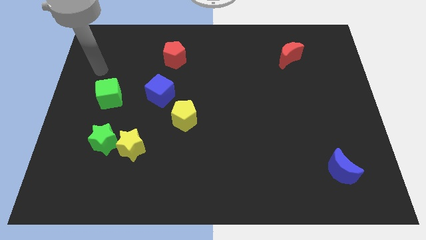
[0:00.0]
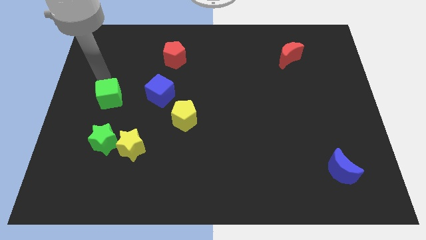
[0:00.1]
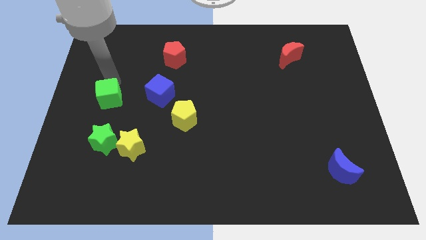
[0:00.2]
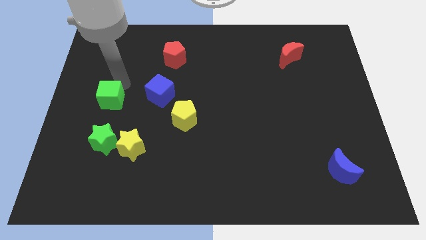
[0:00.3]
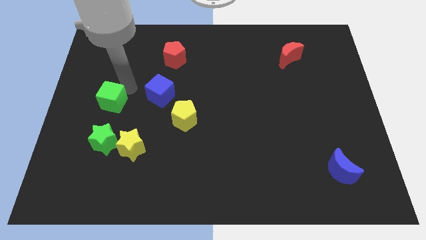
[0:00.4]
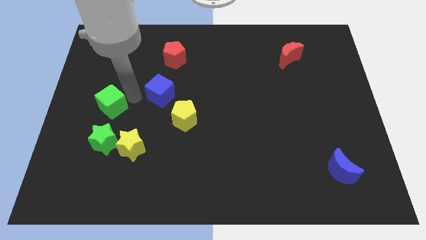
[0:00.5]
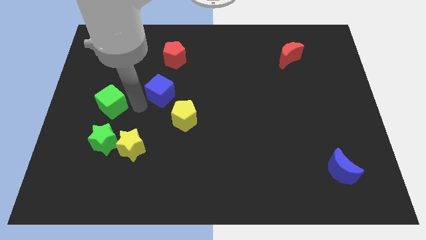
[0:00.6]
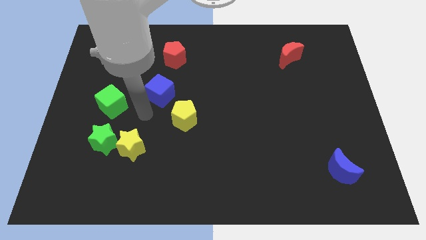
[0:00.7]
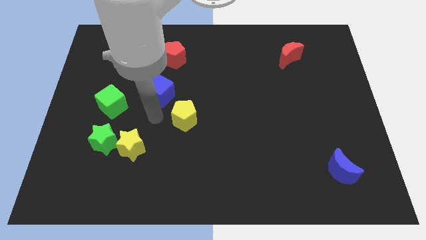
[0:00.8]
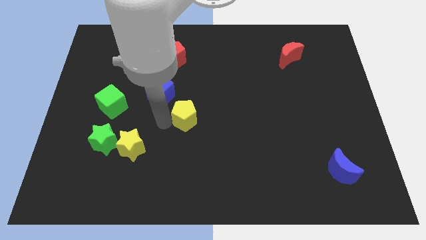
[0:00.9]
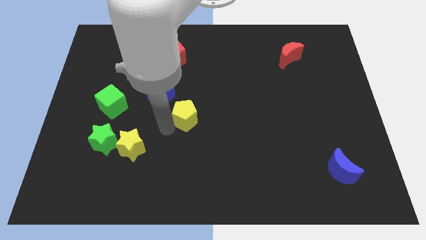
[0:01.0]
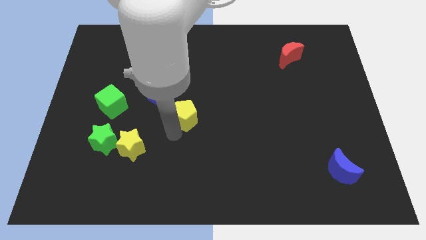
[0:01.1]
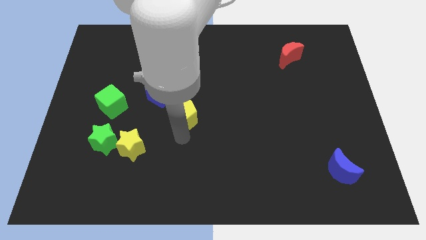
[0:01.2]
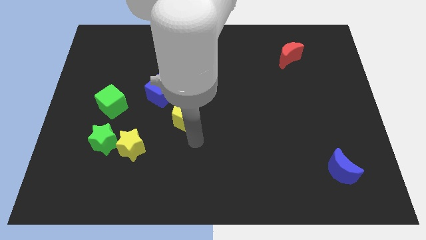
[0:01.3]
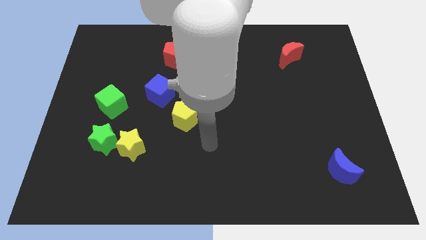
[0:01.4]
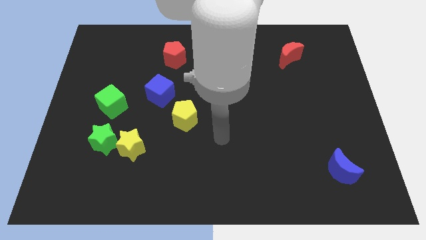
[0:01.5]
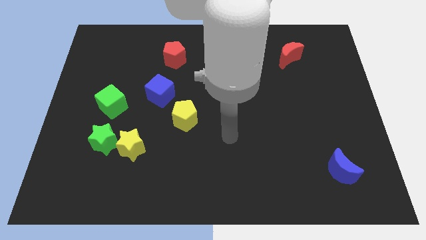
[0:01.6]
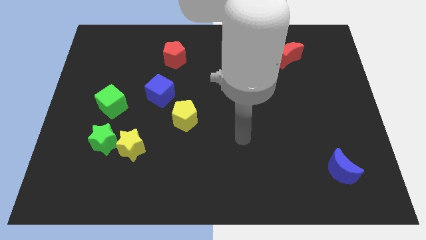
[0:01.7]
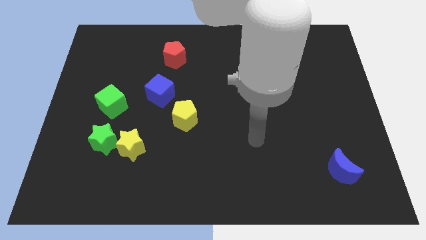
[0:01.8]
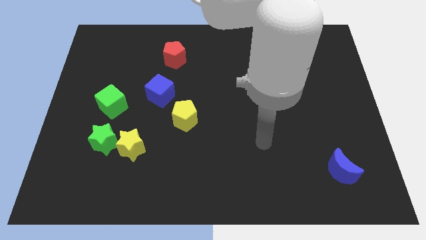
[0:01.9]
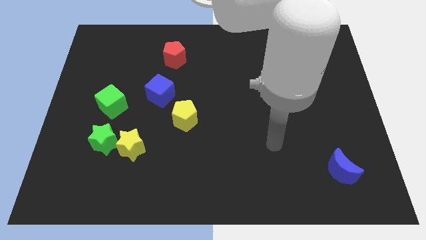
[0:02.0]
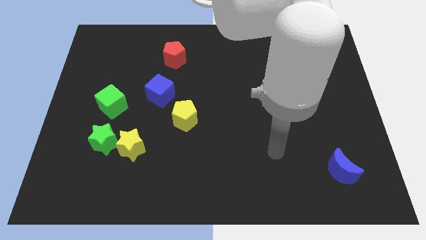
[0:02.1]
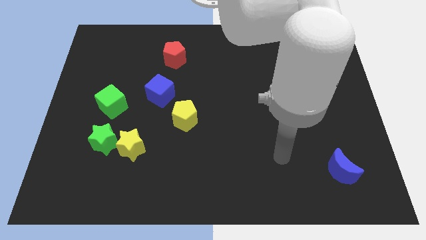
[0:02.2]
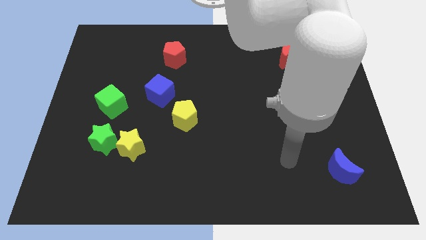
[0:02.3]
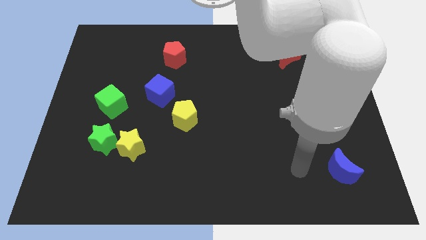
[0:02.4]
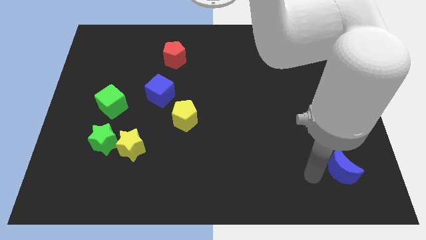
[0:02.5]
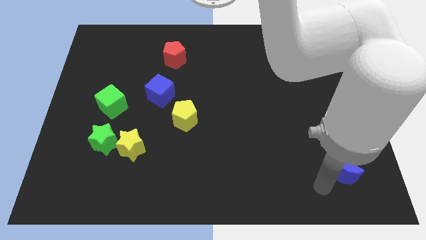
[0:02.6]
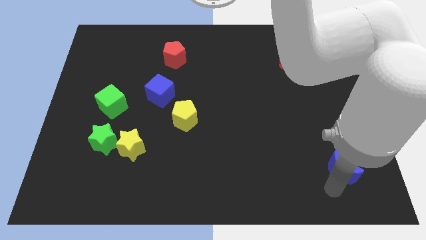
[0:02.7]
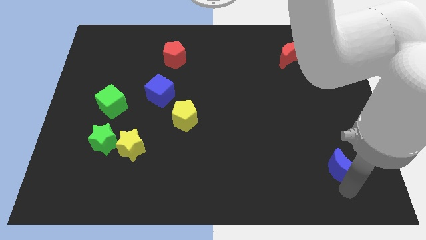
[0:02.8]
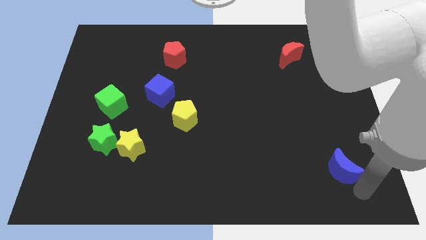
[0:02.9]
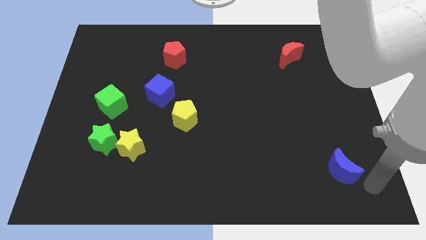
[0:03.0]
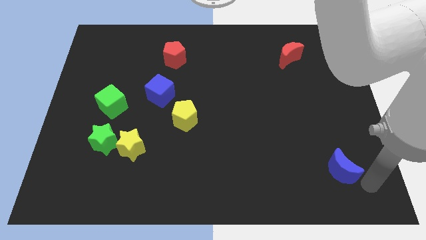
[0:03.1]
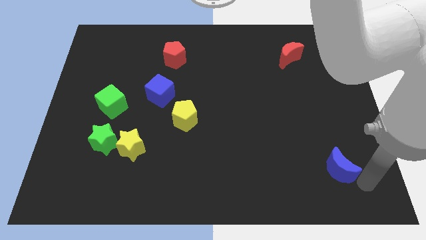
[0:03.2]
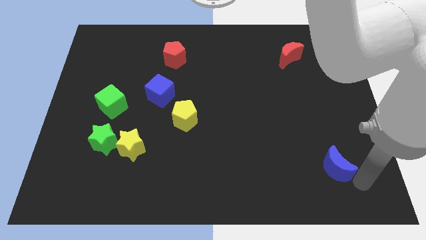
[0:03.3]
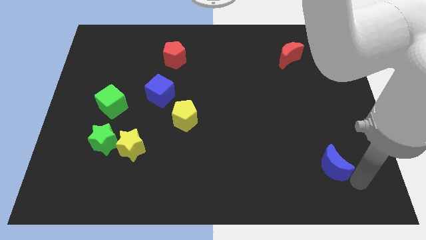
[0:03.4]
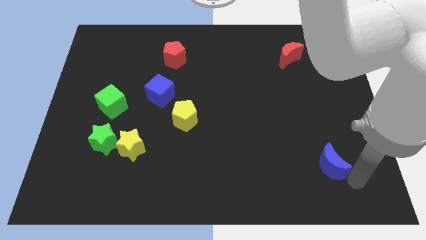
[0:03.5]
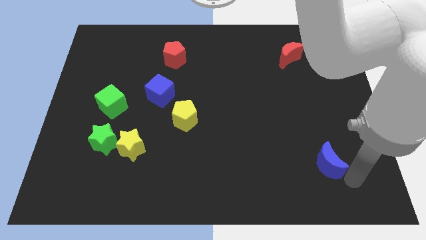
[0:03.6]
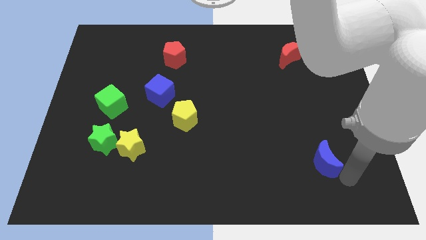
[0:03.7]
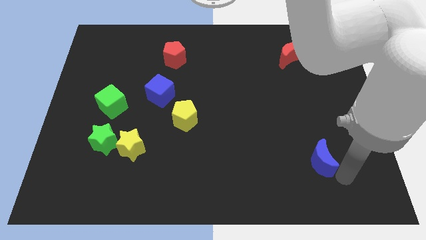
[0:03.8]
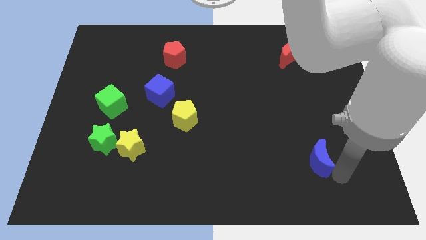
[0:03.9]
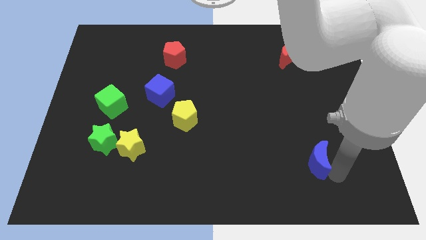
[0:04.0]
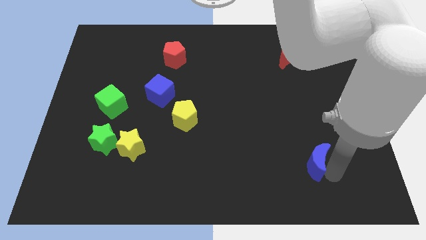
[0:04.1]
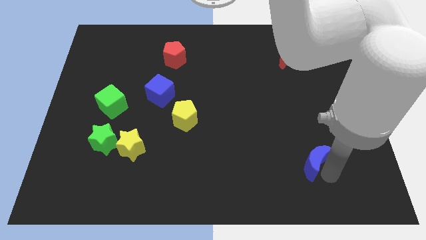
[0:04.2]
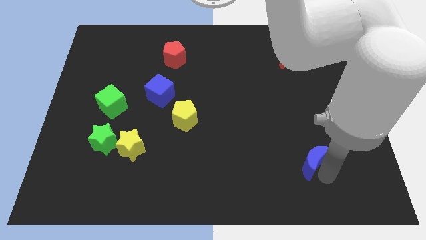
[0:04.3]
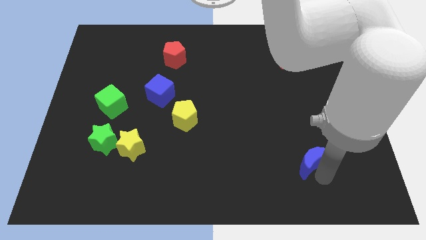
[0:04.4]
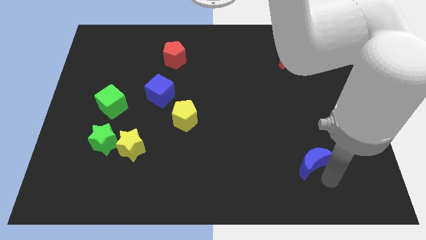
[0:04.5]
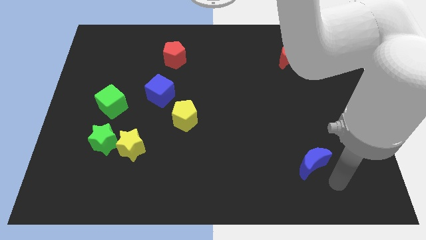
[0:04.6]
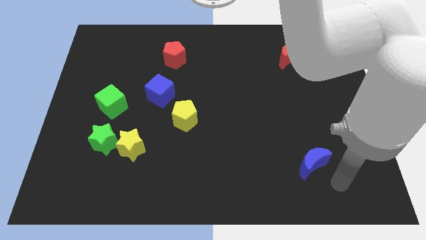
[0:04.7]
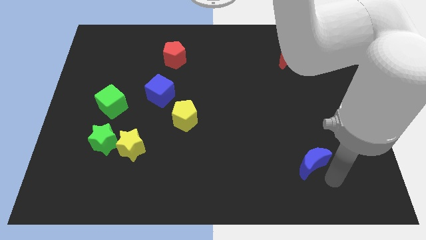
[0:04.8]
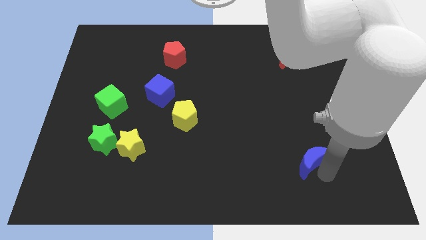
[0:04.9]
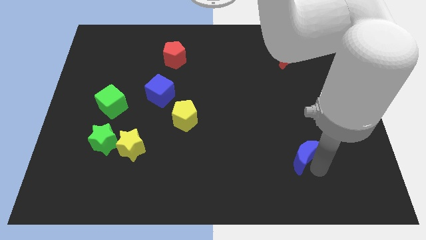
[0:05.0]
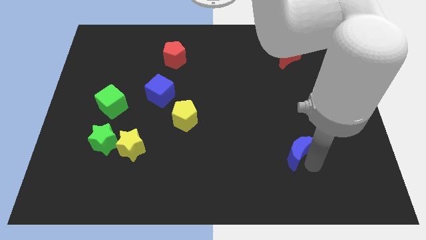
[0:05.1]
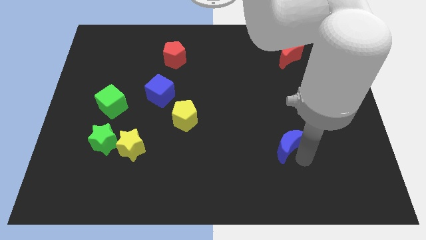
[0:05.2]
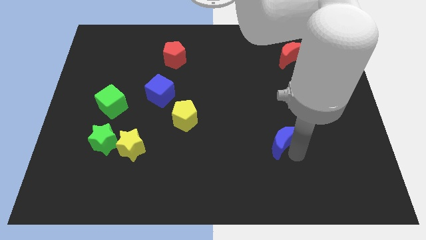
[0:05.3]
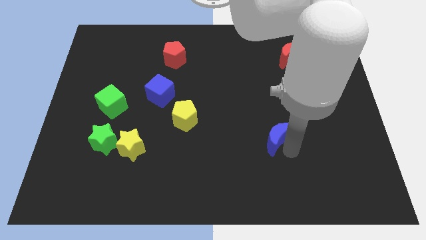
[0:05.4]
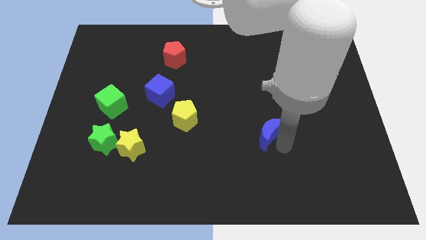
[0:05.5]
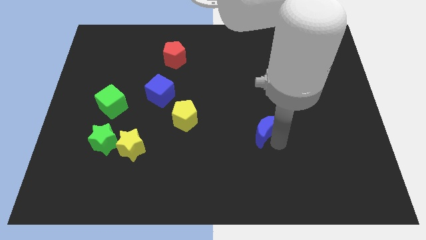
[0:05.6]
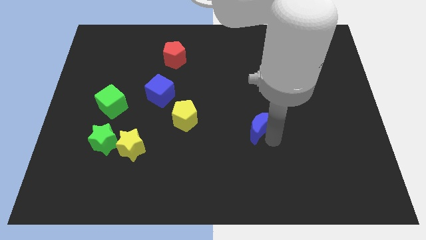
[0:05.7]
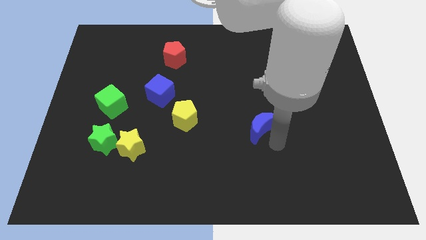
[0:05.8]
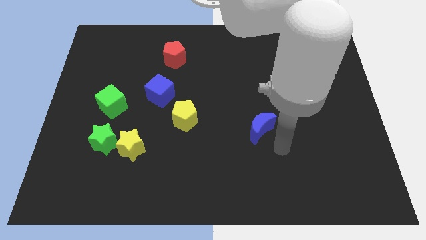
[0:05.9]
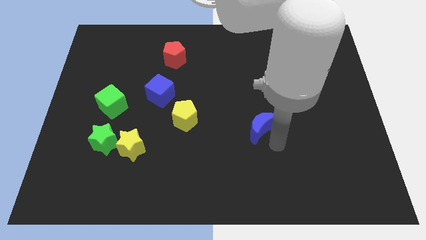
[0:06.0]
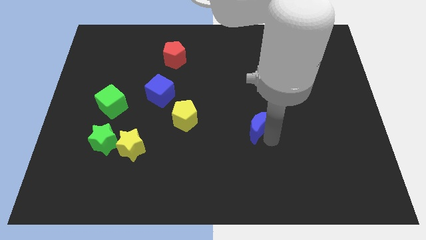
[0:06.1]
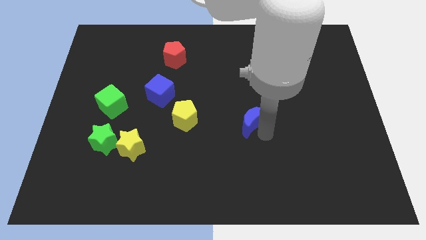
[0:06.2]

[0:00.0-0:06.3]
slide the blue moon to the center

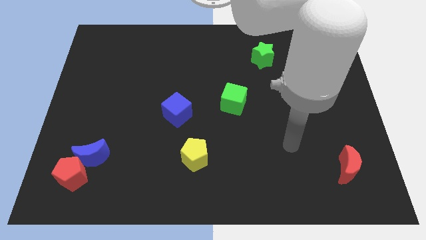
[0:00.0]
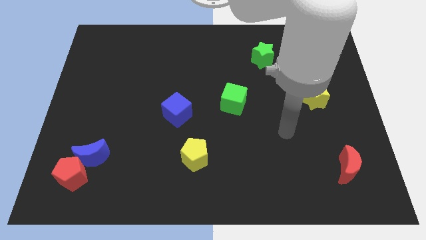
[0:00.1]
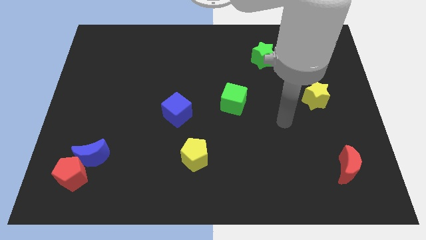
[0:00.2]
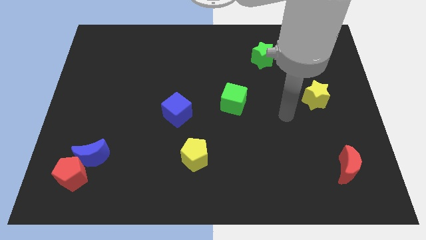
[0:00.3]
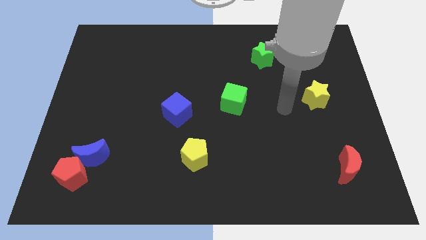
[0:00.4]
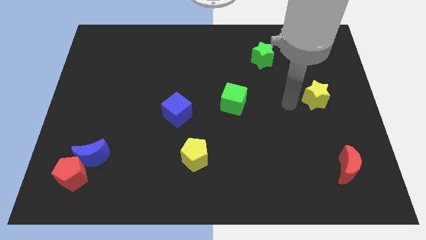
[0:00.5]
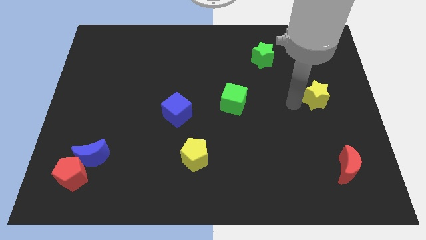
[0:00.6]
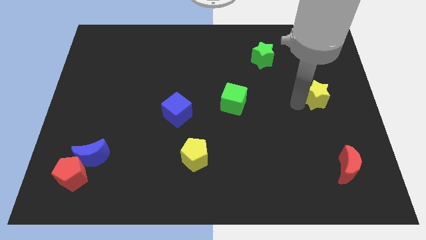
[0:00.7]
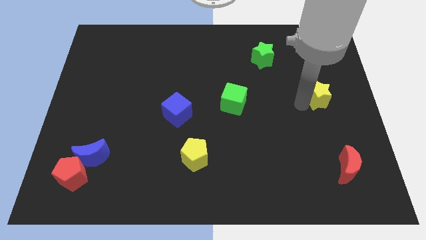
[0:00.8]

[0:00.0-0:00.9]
slide the yellow star to the center right
